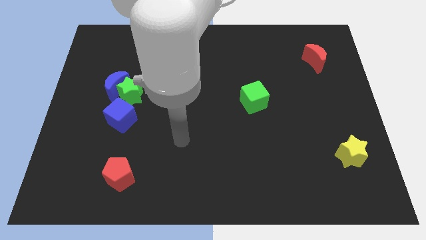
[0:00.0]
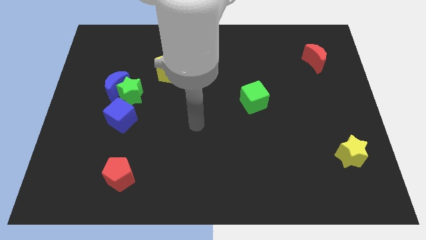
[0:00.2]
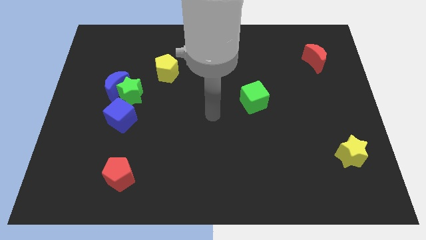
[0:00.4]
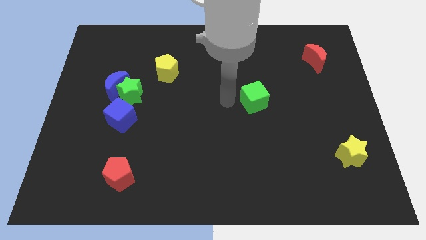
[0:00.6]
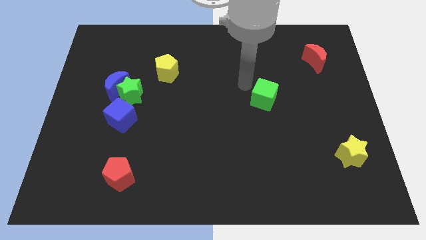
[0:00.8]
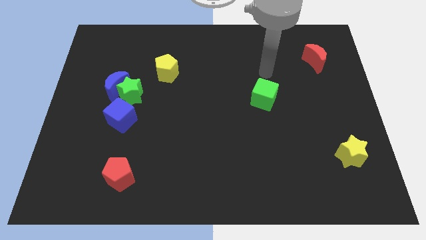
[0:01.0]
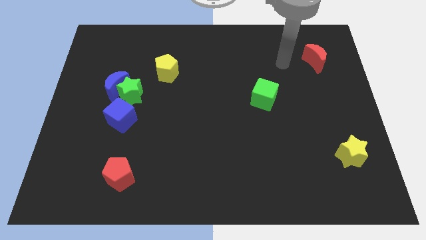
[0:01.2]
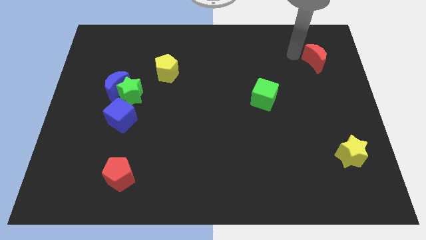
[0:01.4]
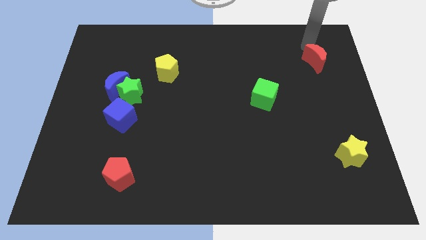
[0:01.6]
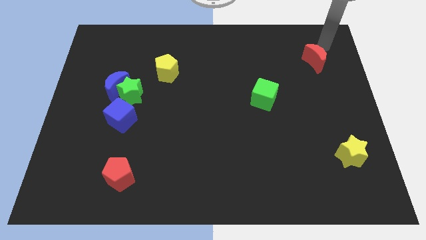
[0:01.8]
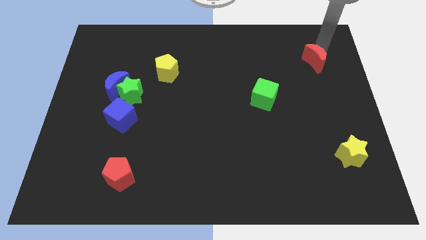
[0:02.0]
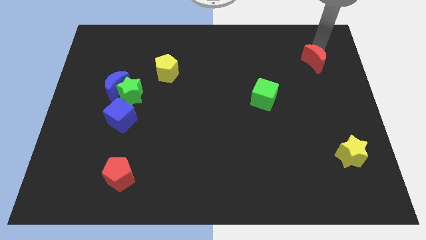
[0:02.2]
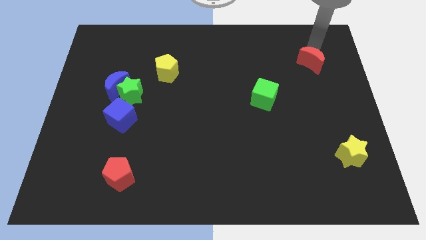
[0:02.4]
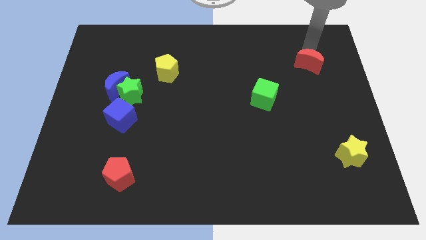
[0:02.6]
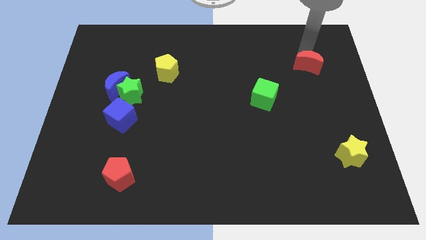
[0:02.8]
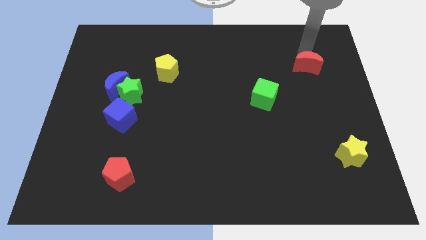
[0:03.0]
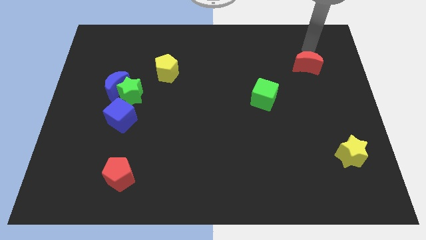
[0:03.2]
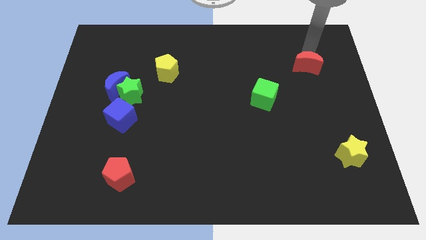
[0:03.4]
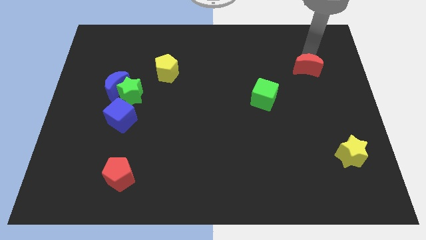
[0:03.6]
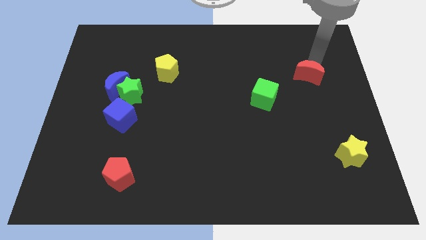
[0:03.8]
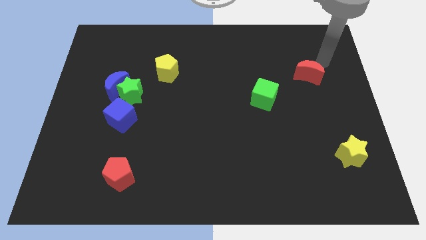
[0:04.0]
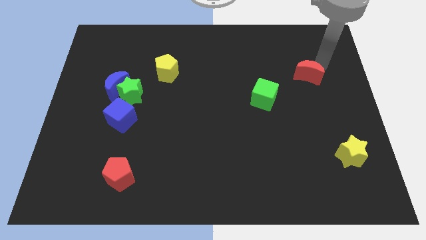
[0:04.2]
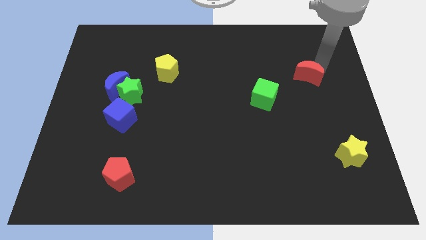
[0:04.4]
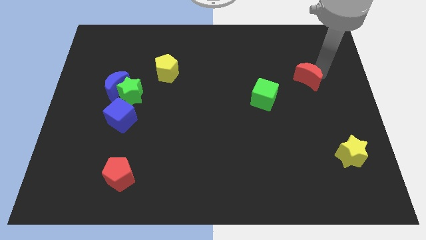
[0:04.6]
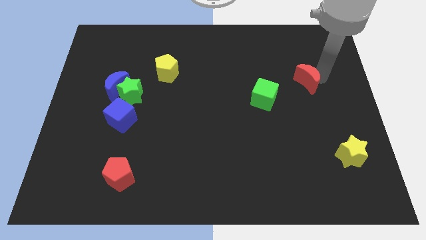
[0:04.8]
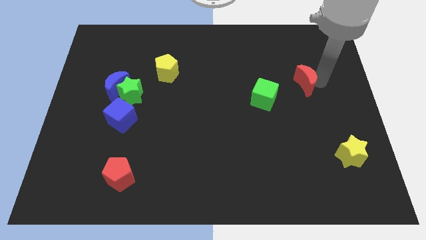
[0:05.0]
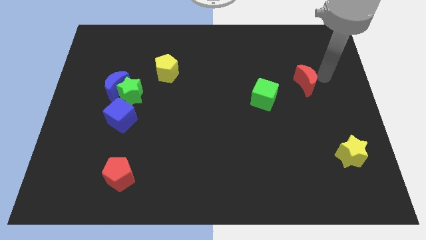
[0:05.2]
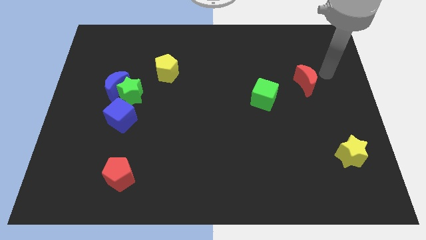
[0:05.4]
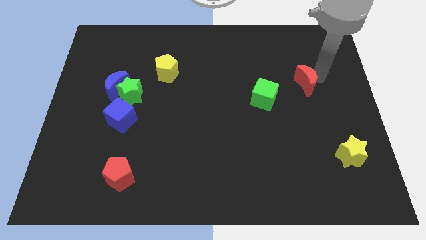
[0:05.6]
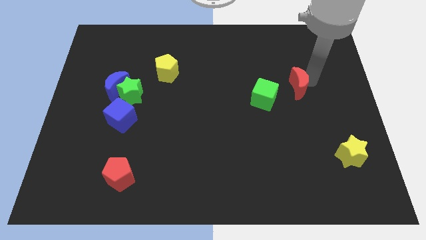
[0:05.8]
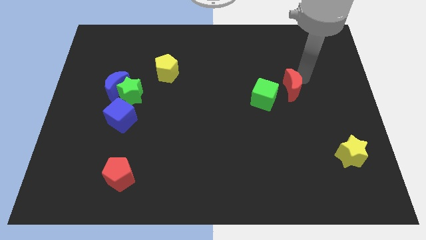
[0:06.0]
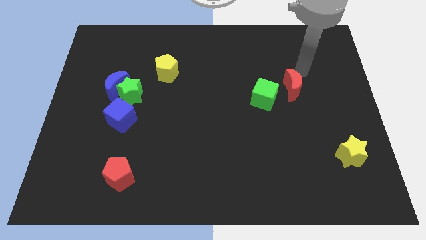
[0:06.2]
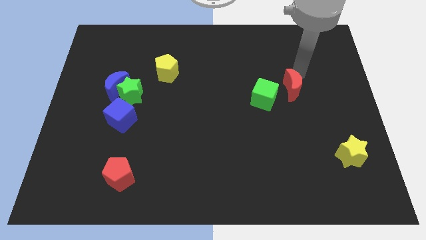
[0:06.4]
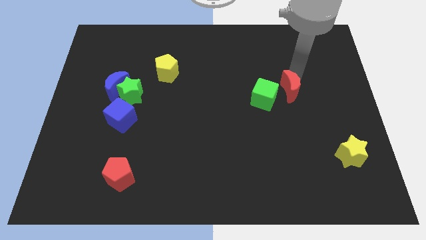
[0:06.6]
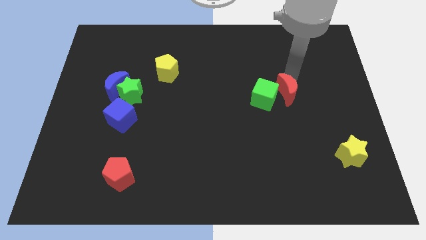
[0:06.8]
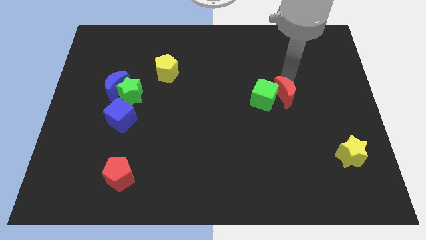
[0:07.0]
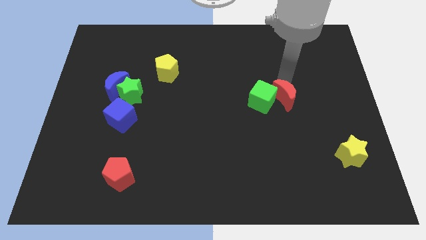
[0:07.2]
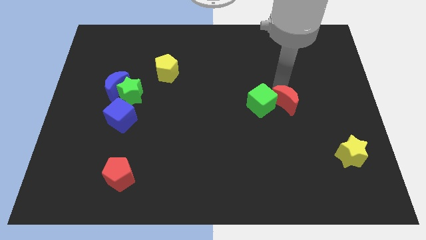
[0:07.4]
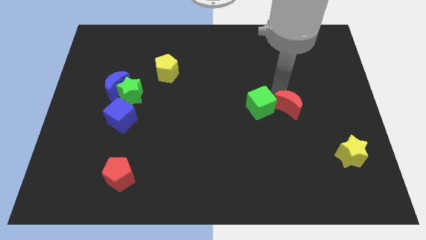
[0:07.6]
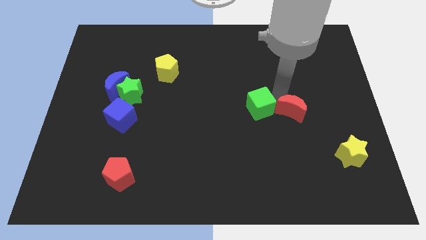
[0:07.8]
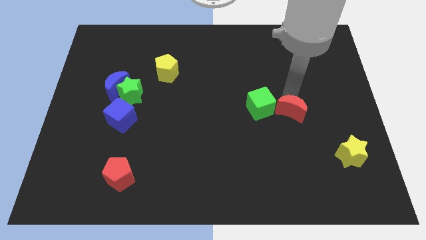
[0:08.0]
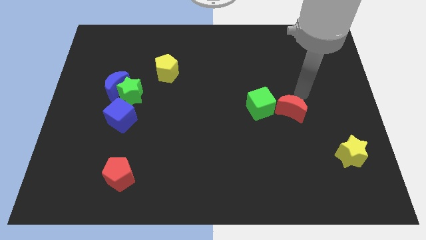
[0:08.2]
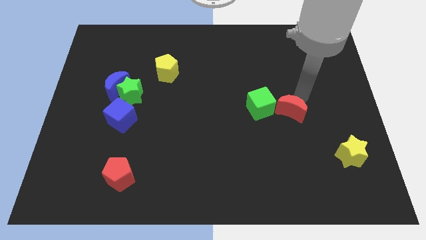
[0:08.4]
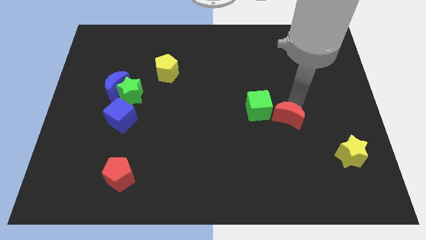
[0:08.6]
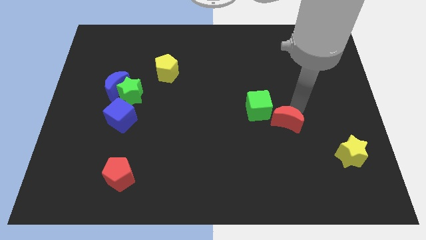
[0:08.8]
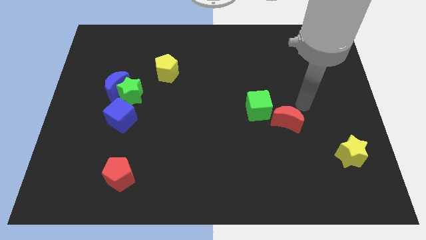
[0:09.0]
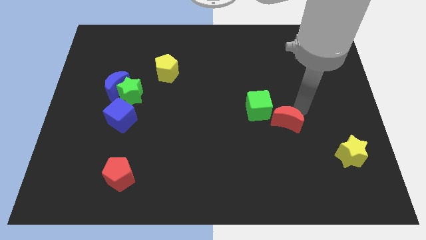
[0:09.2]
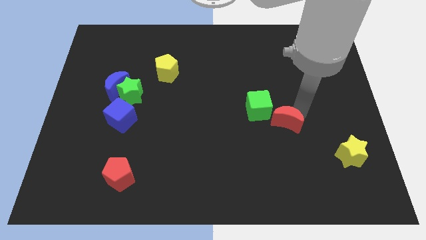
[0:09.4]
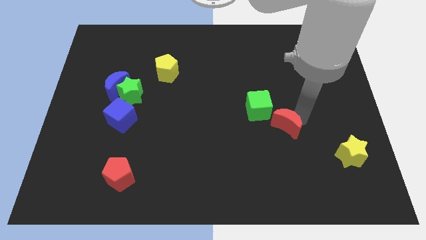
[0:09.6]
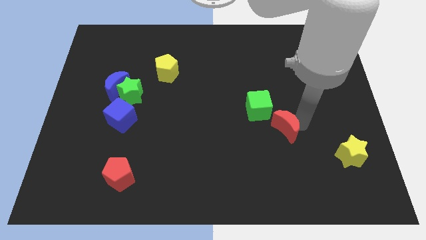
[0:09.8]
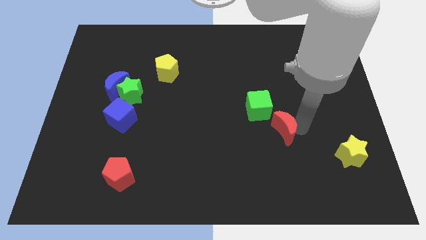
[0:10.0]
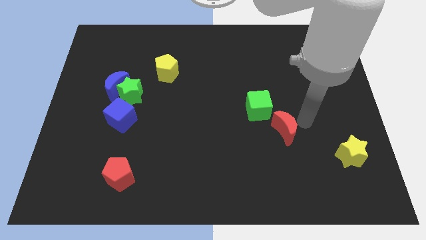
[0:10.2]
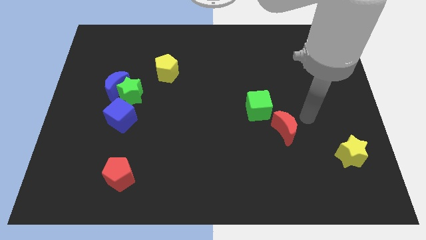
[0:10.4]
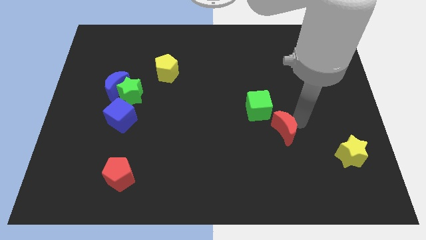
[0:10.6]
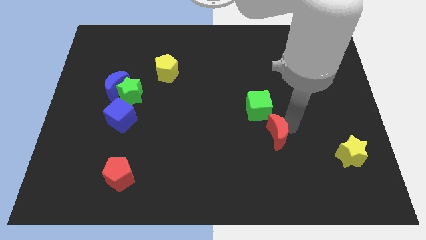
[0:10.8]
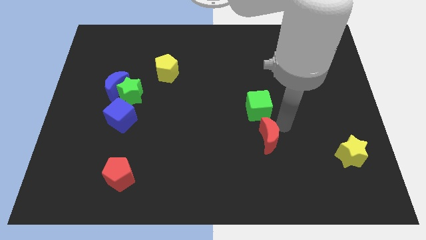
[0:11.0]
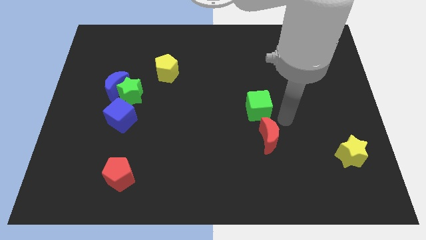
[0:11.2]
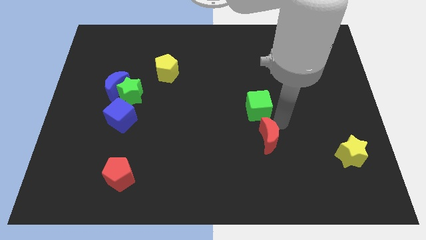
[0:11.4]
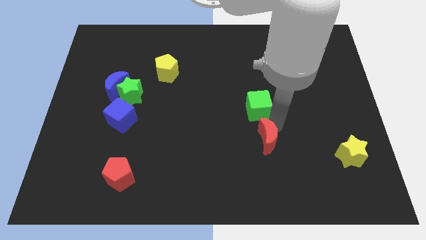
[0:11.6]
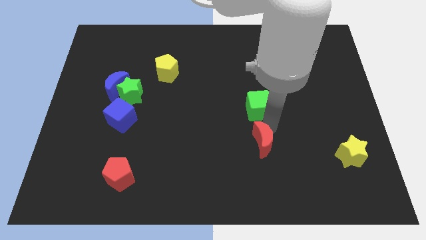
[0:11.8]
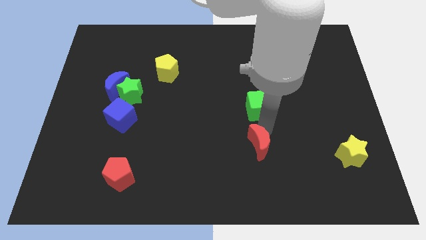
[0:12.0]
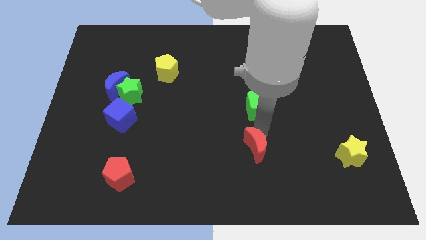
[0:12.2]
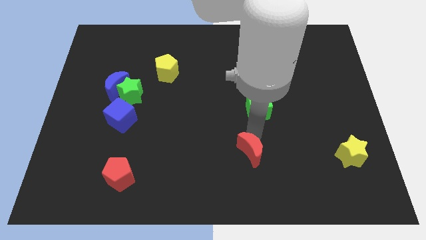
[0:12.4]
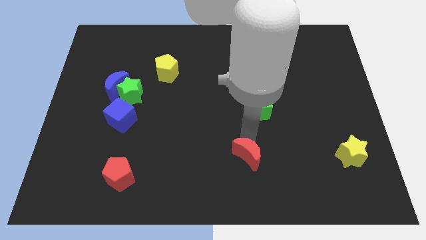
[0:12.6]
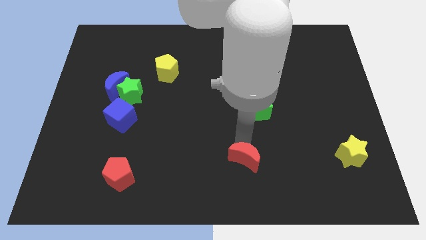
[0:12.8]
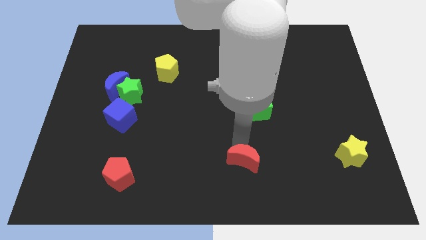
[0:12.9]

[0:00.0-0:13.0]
move the red moon to the bottom side
